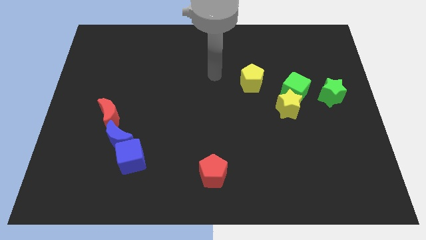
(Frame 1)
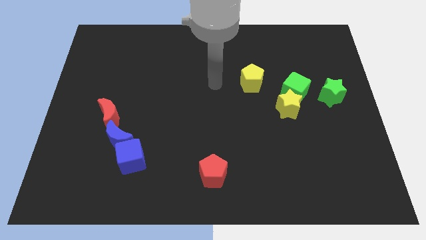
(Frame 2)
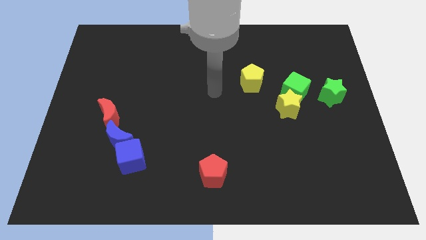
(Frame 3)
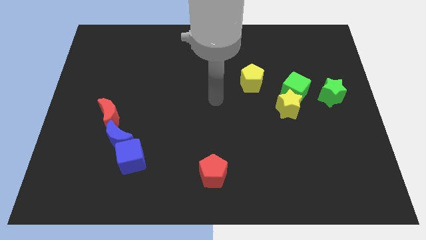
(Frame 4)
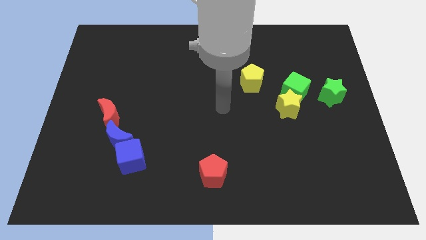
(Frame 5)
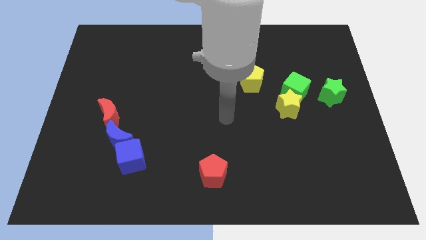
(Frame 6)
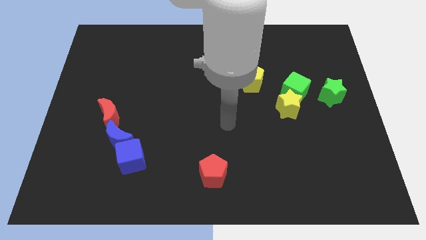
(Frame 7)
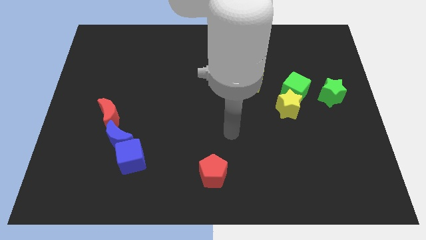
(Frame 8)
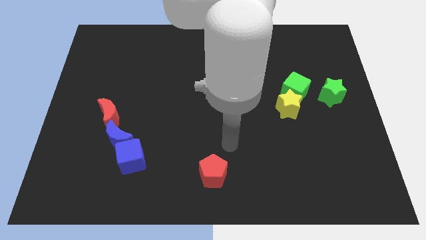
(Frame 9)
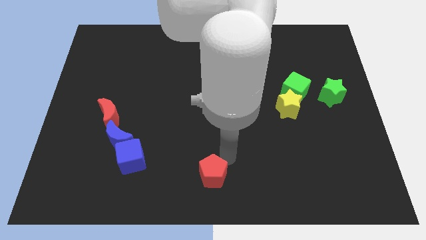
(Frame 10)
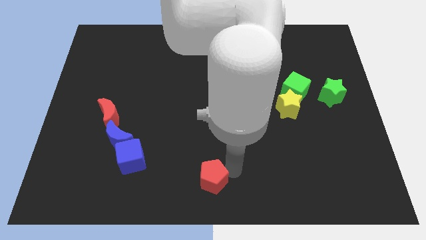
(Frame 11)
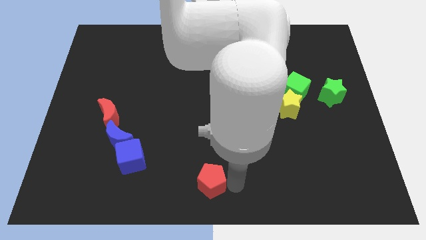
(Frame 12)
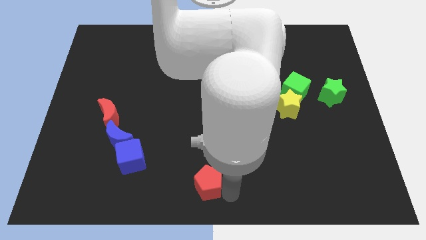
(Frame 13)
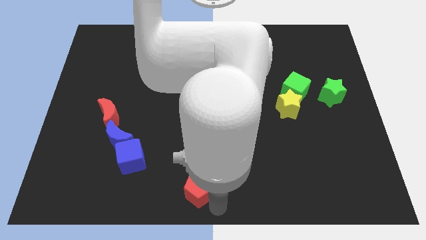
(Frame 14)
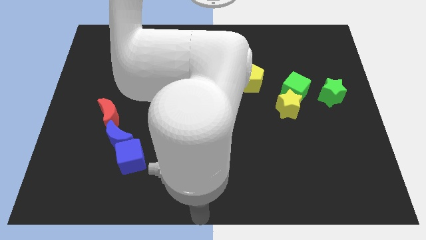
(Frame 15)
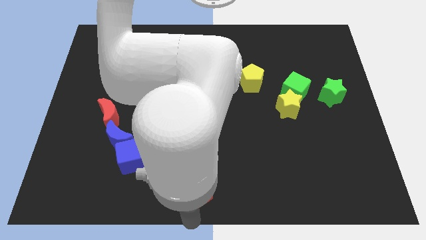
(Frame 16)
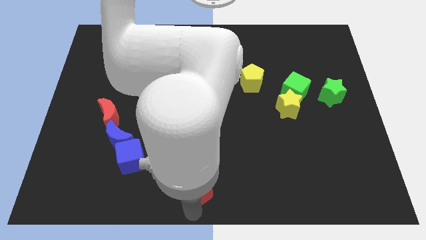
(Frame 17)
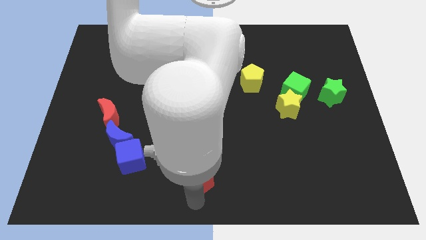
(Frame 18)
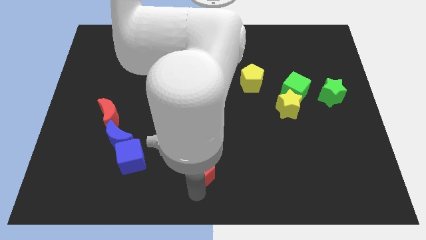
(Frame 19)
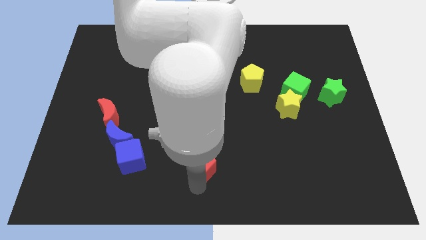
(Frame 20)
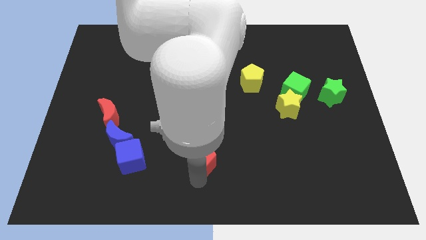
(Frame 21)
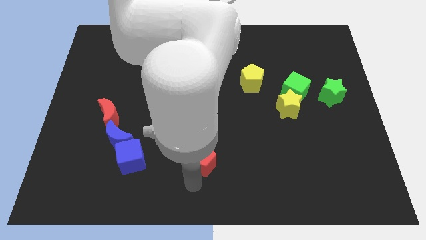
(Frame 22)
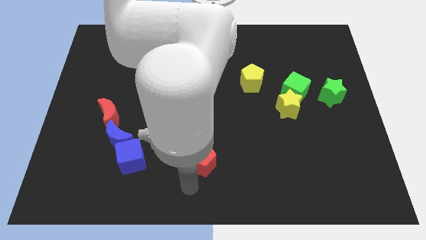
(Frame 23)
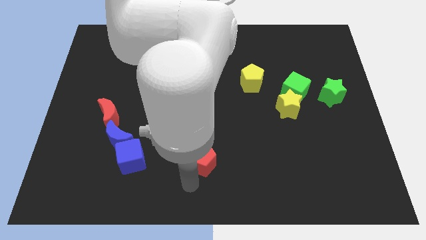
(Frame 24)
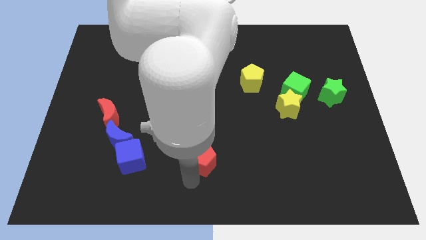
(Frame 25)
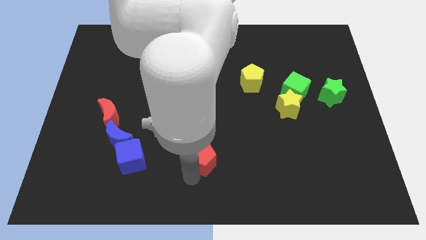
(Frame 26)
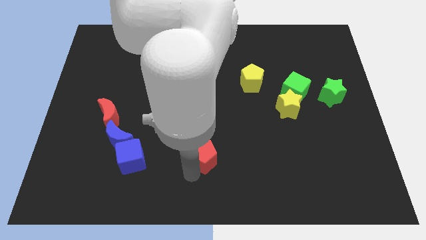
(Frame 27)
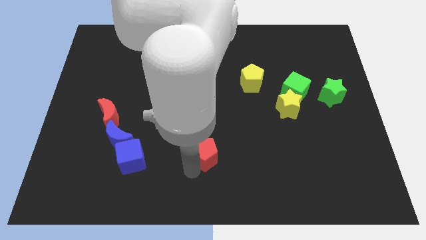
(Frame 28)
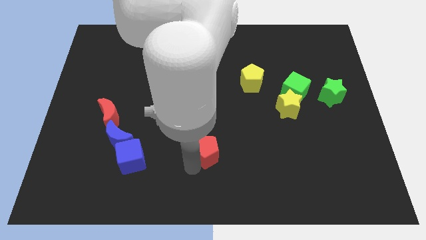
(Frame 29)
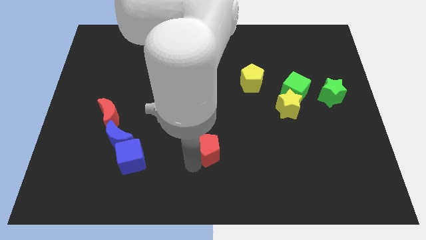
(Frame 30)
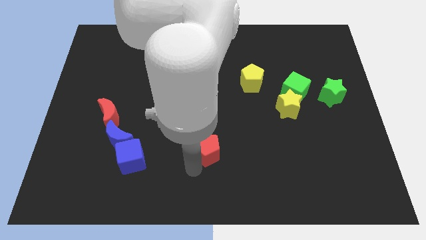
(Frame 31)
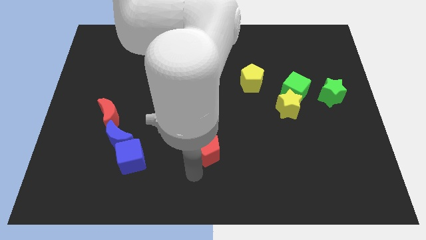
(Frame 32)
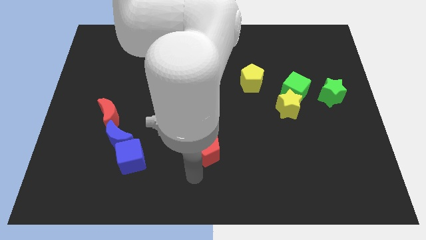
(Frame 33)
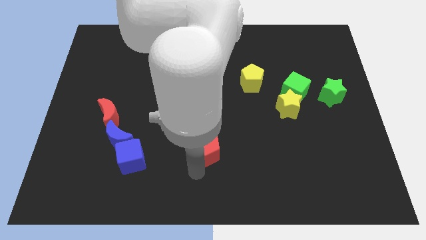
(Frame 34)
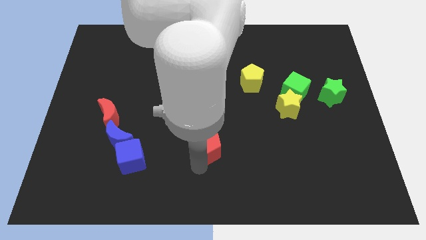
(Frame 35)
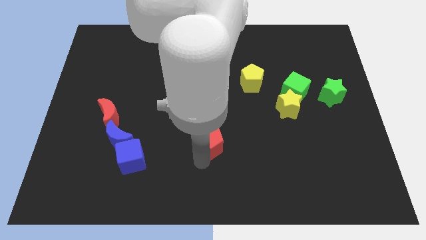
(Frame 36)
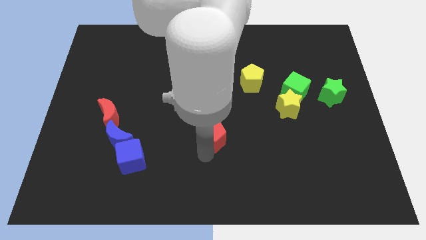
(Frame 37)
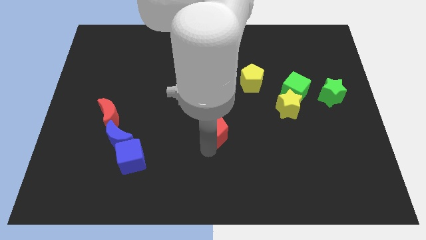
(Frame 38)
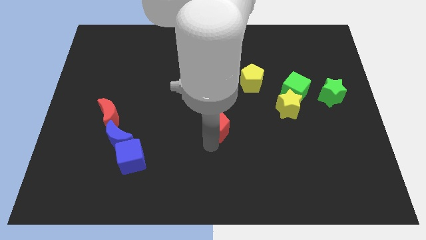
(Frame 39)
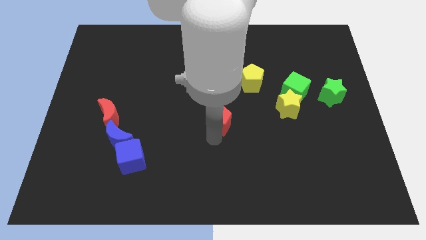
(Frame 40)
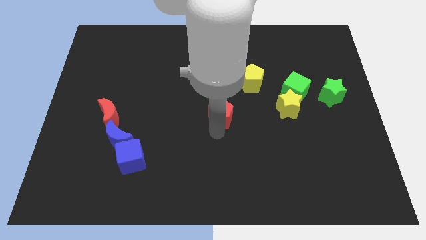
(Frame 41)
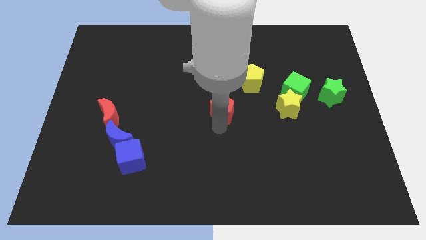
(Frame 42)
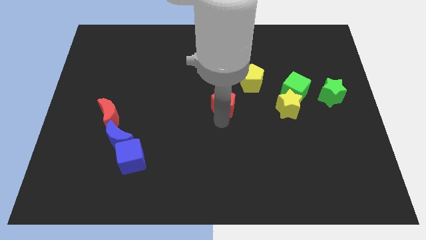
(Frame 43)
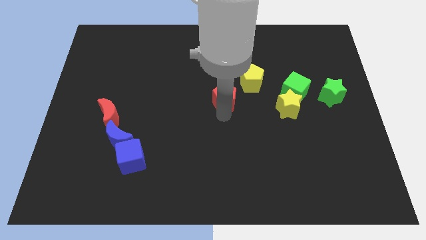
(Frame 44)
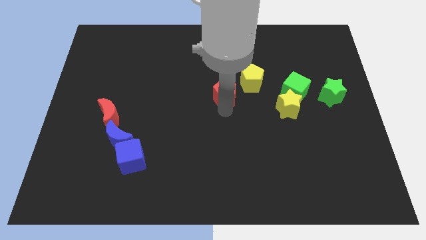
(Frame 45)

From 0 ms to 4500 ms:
push the red pentagon up

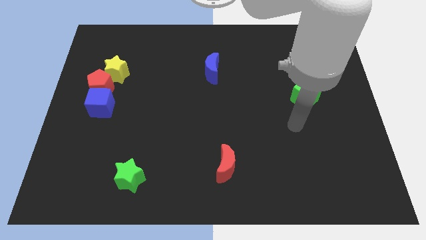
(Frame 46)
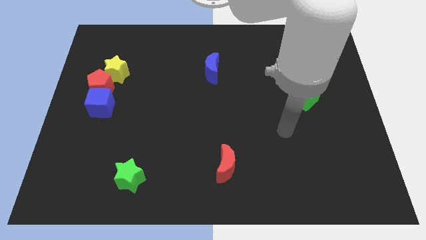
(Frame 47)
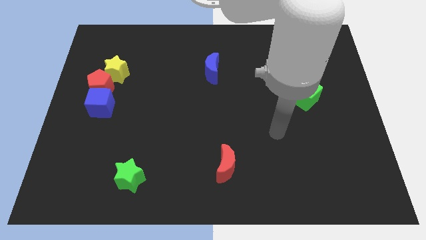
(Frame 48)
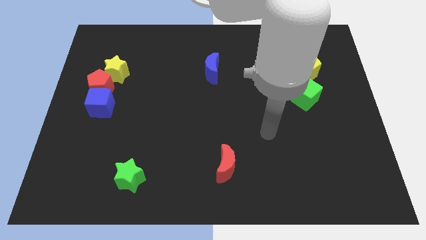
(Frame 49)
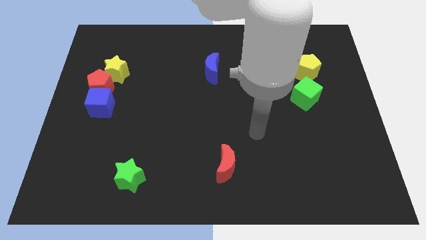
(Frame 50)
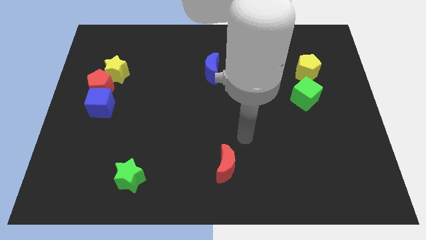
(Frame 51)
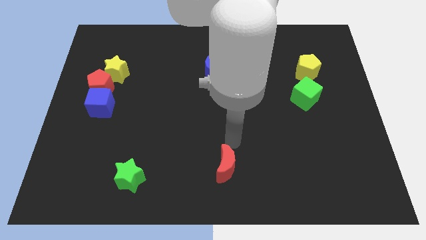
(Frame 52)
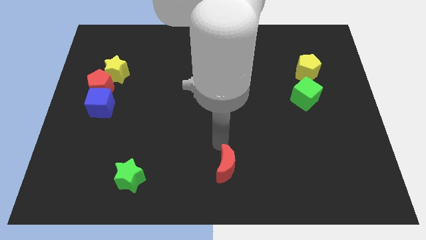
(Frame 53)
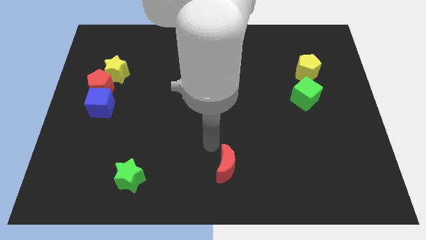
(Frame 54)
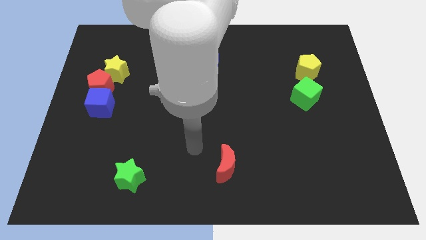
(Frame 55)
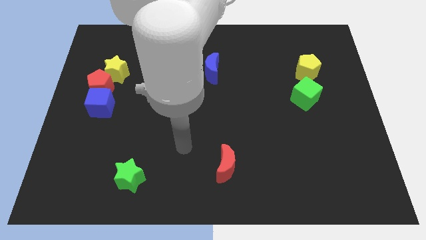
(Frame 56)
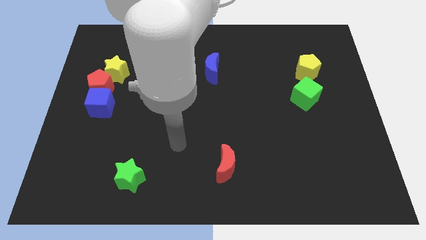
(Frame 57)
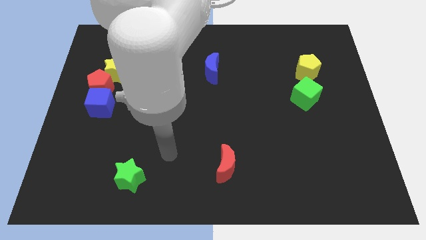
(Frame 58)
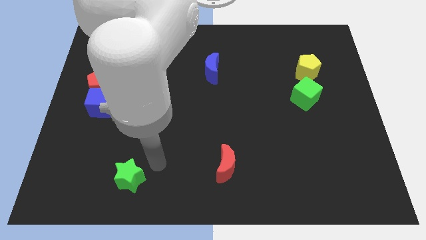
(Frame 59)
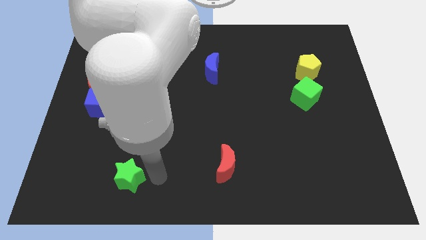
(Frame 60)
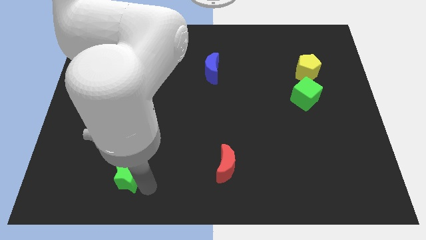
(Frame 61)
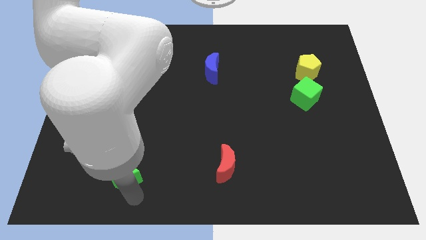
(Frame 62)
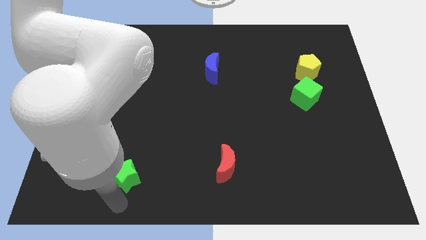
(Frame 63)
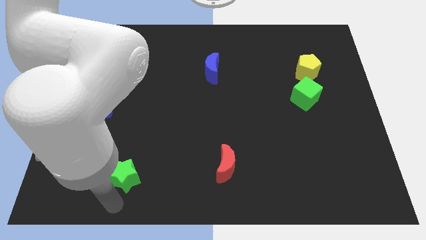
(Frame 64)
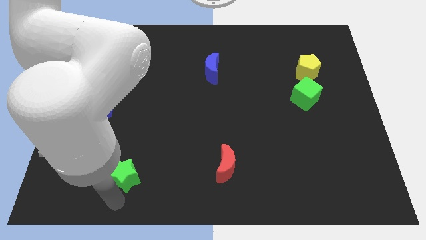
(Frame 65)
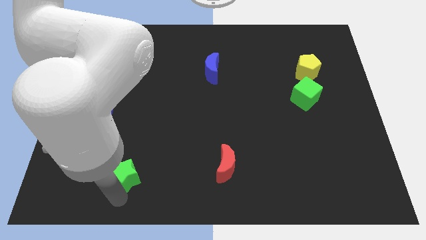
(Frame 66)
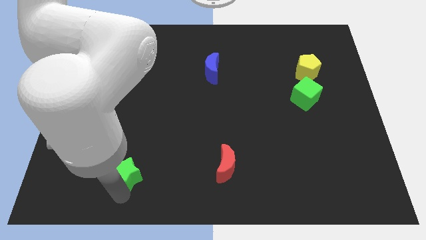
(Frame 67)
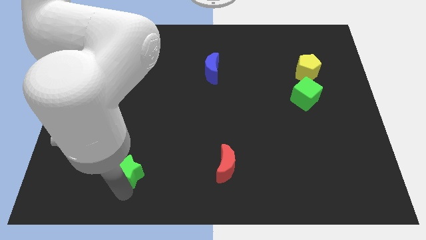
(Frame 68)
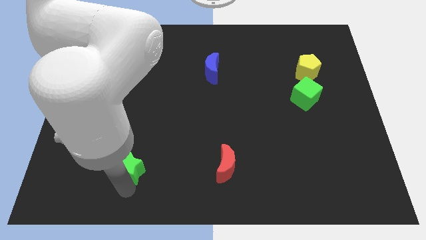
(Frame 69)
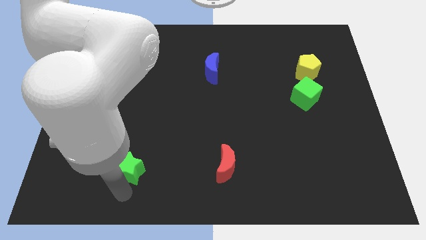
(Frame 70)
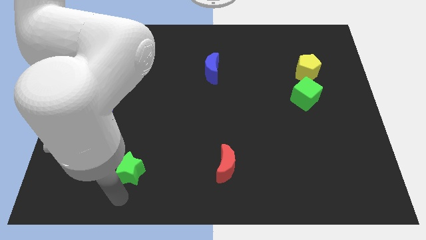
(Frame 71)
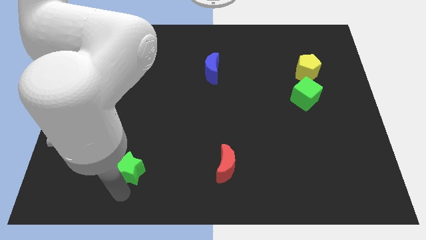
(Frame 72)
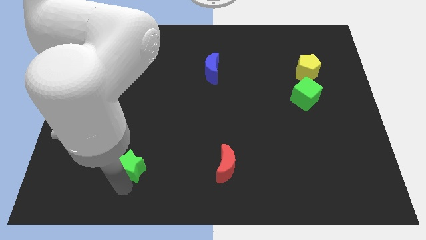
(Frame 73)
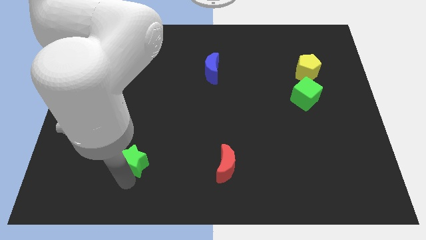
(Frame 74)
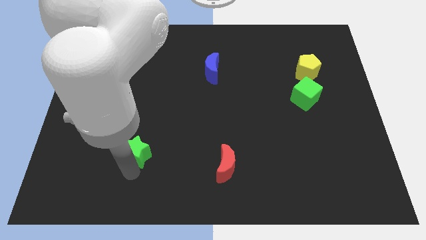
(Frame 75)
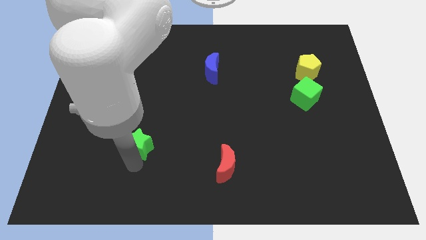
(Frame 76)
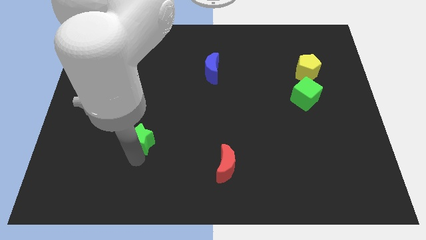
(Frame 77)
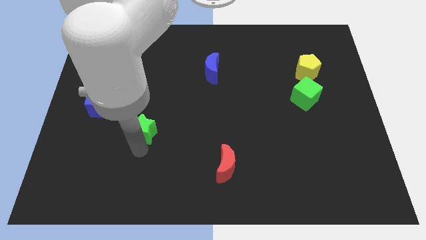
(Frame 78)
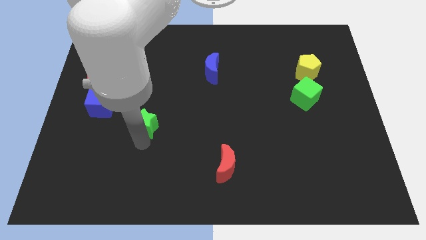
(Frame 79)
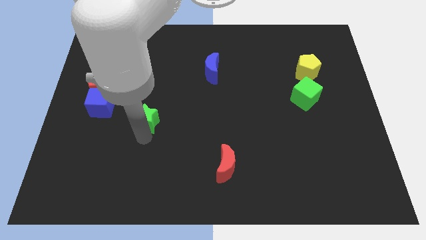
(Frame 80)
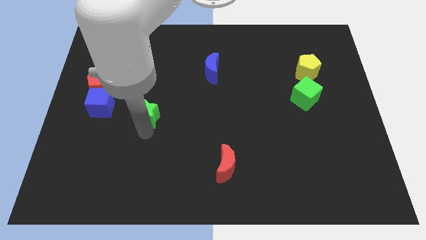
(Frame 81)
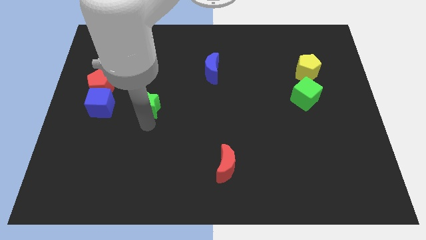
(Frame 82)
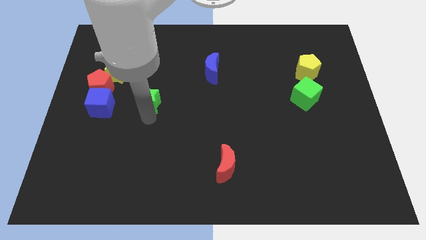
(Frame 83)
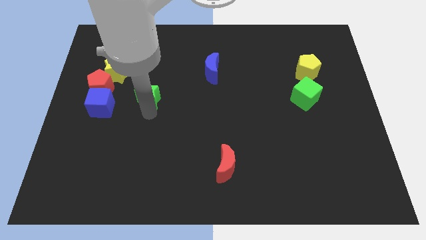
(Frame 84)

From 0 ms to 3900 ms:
slide the green star upwards
